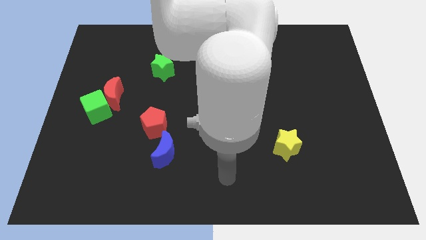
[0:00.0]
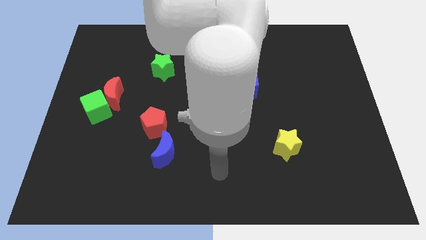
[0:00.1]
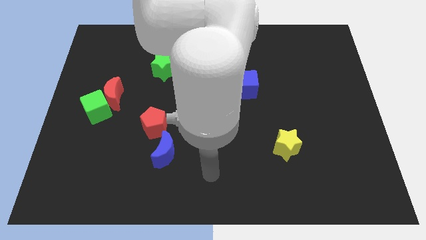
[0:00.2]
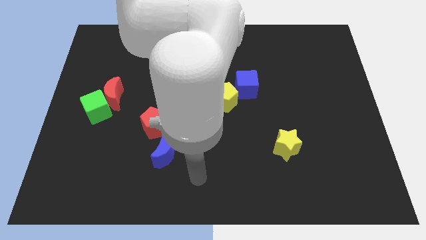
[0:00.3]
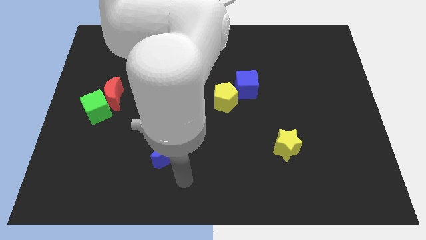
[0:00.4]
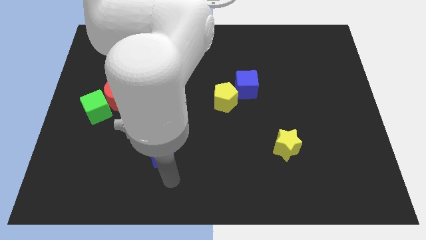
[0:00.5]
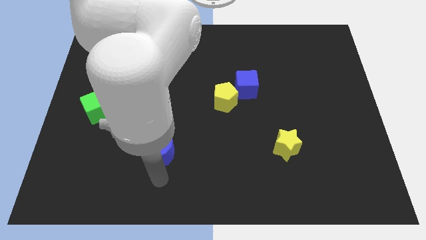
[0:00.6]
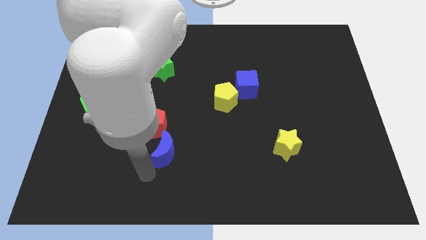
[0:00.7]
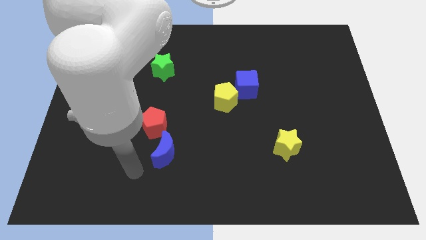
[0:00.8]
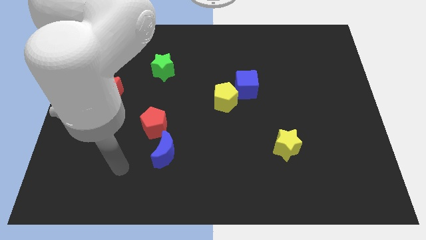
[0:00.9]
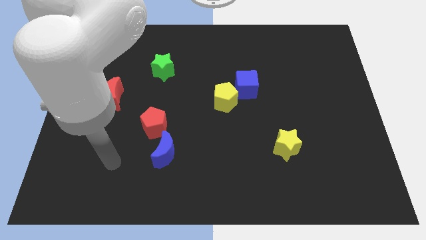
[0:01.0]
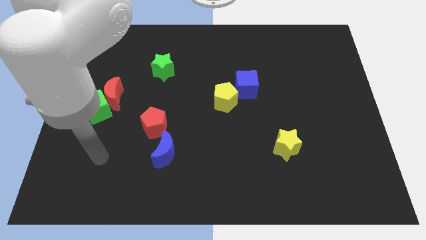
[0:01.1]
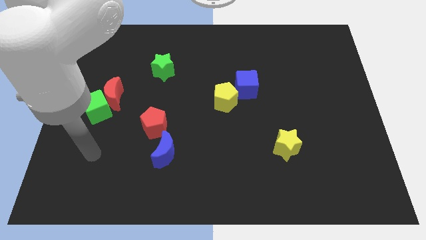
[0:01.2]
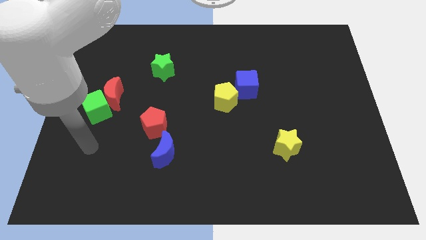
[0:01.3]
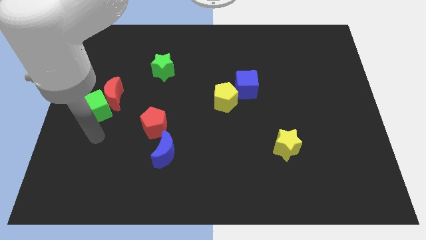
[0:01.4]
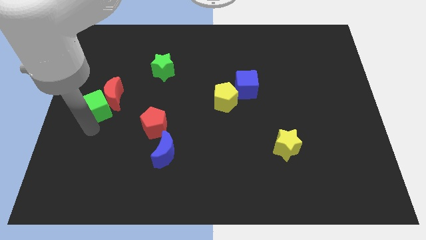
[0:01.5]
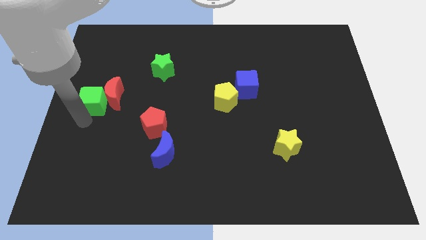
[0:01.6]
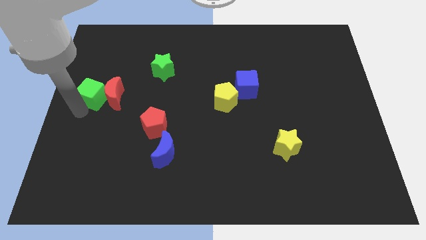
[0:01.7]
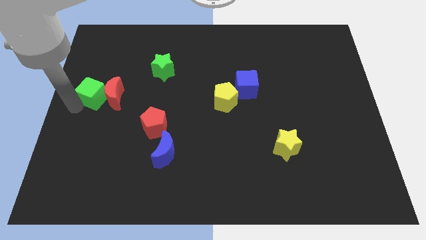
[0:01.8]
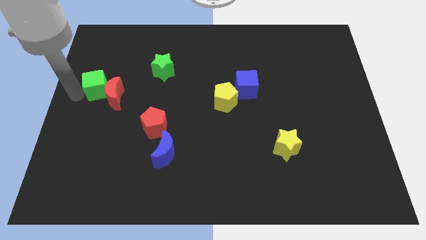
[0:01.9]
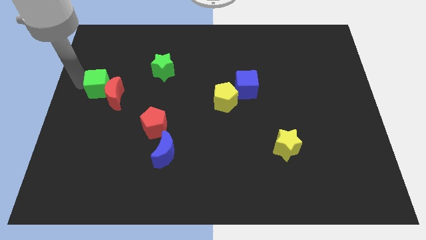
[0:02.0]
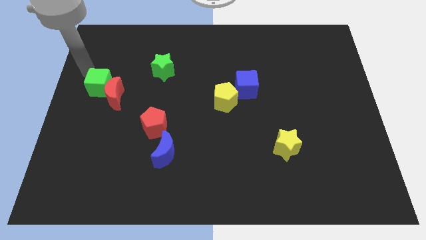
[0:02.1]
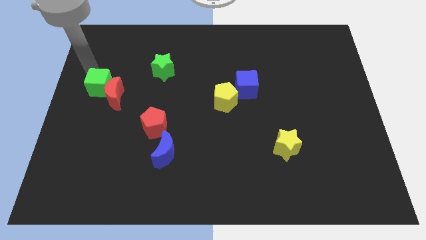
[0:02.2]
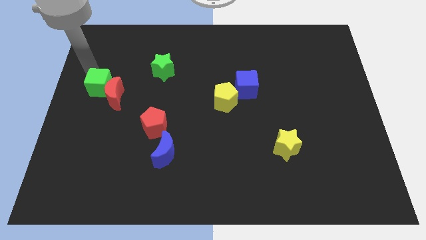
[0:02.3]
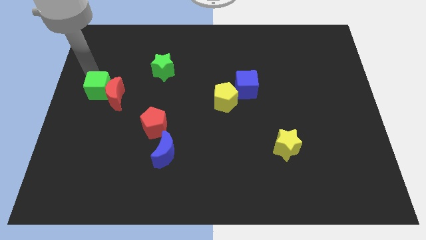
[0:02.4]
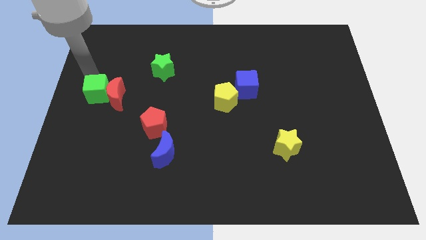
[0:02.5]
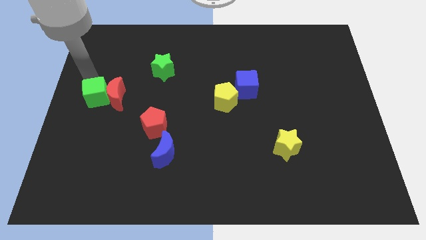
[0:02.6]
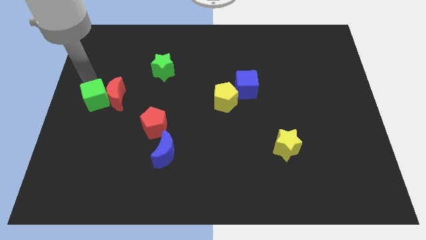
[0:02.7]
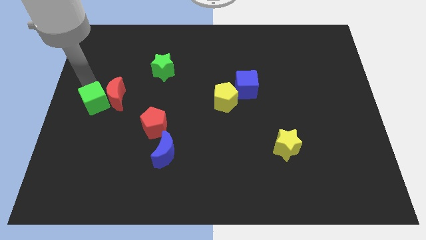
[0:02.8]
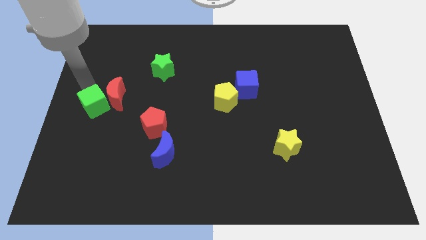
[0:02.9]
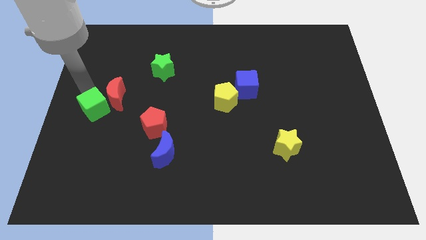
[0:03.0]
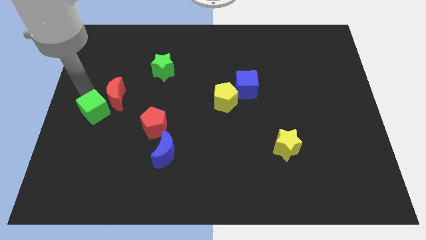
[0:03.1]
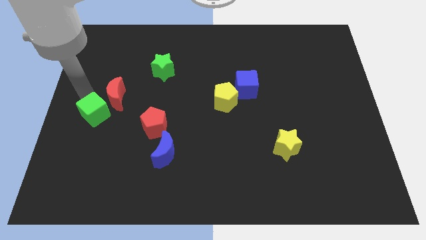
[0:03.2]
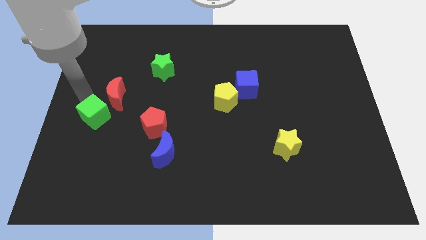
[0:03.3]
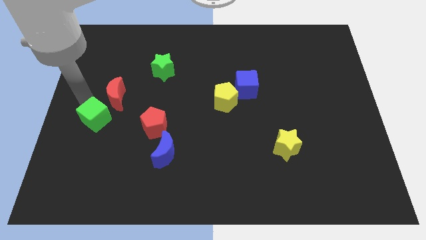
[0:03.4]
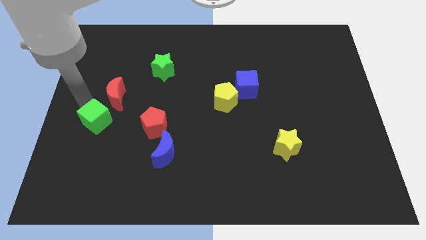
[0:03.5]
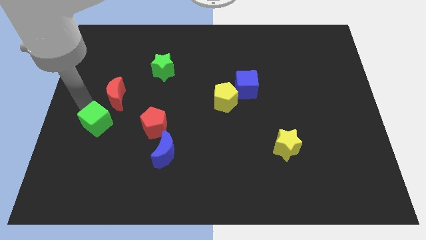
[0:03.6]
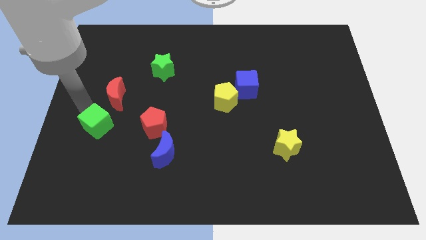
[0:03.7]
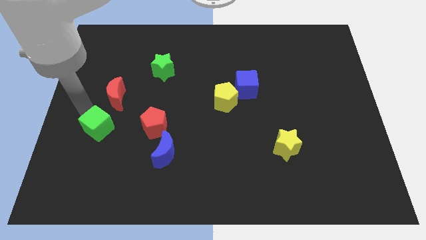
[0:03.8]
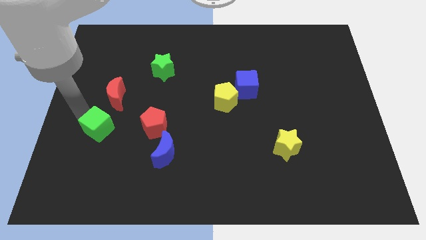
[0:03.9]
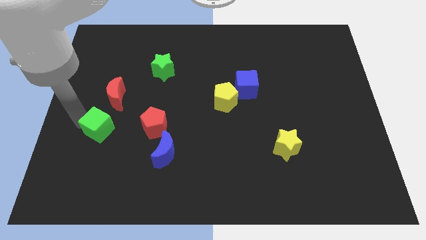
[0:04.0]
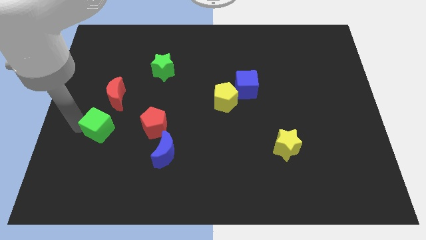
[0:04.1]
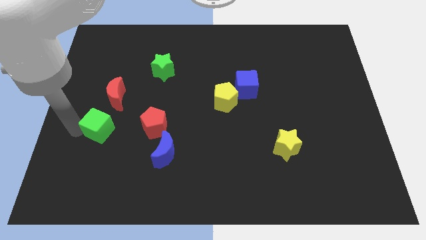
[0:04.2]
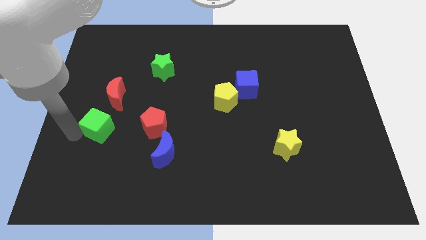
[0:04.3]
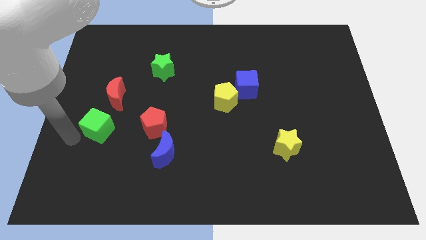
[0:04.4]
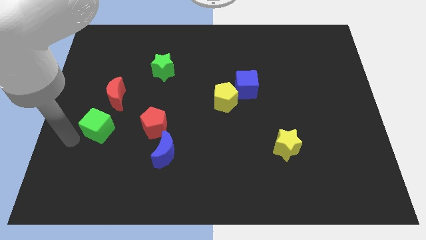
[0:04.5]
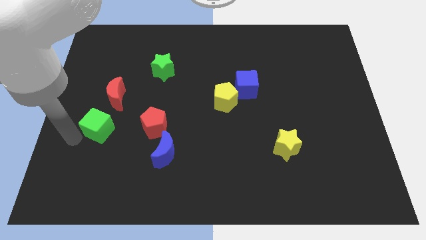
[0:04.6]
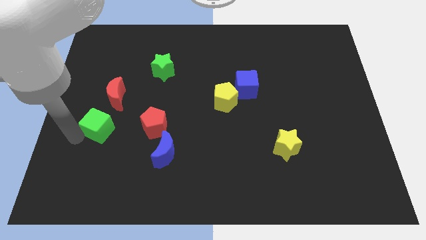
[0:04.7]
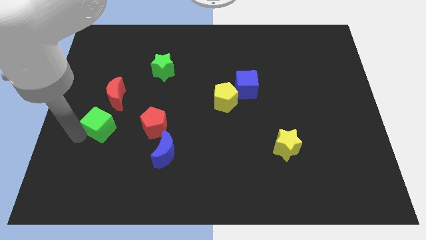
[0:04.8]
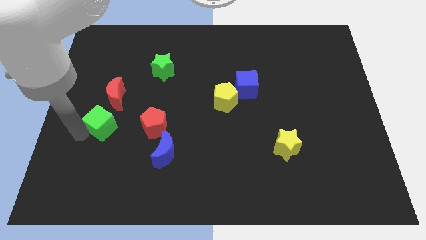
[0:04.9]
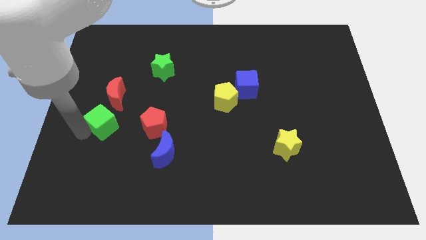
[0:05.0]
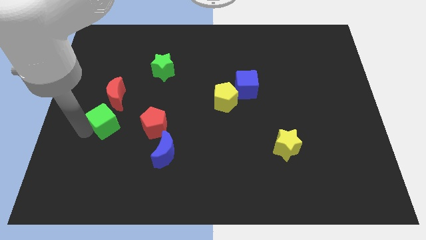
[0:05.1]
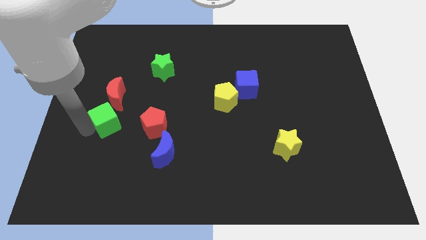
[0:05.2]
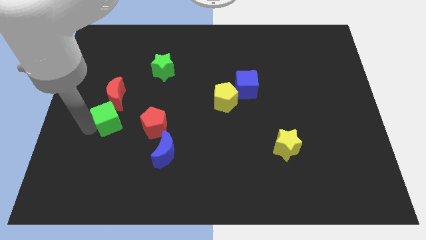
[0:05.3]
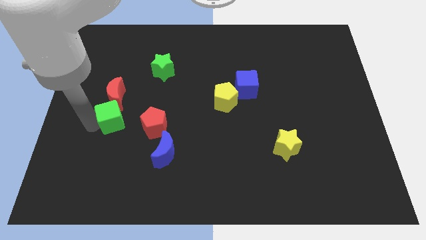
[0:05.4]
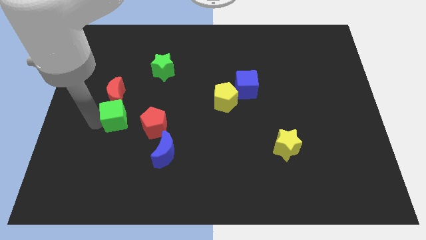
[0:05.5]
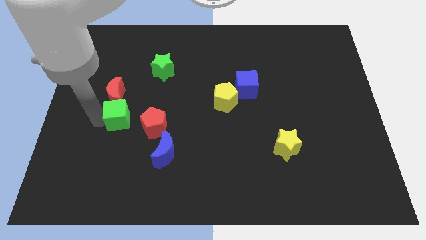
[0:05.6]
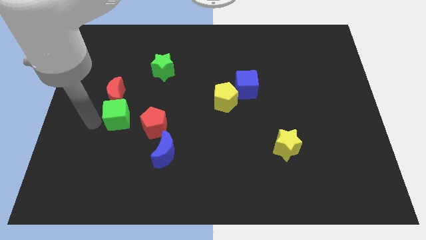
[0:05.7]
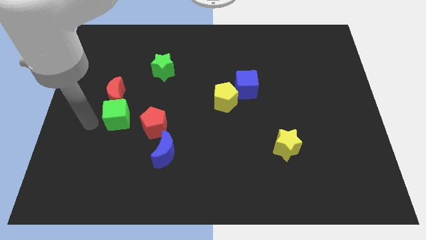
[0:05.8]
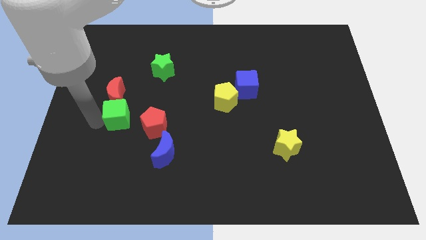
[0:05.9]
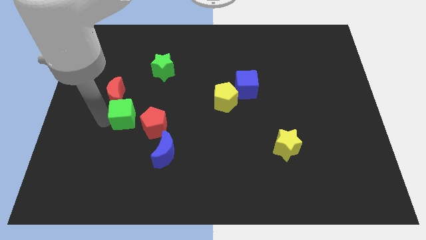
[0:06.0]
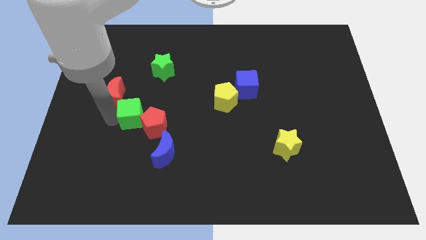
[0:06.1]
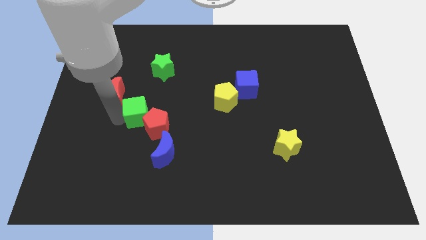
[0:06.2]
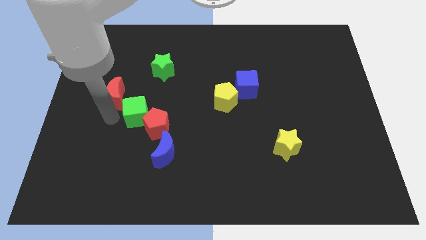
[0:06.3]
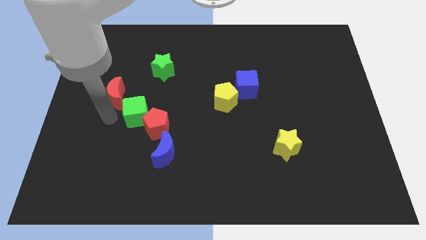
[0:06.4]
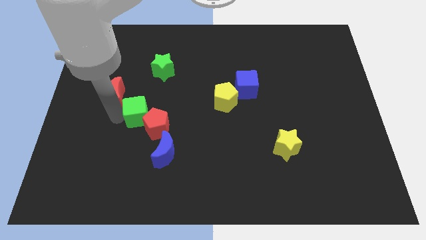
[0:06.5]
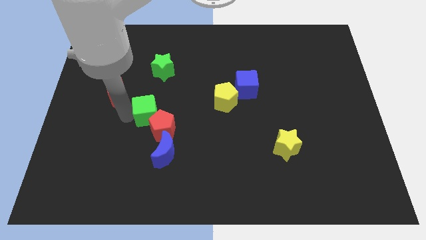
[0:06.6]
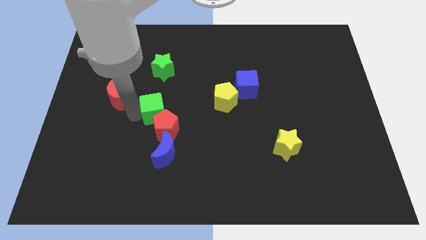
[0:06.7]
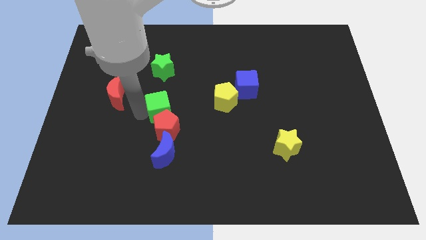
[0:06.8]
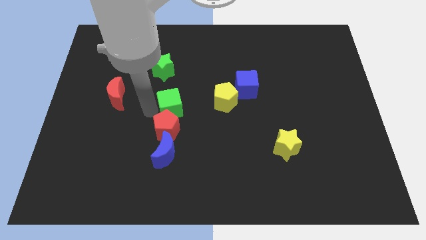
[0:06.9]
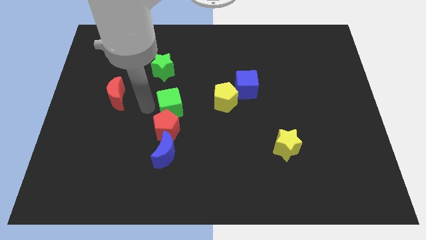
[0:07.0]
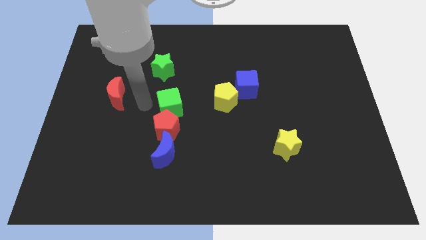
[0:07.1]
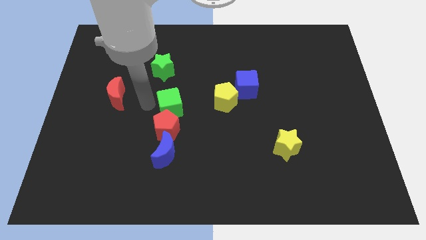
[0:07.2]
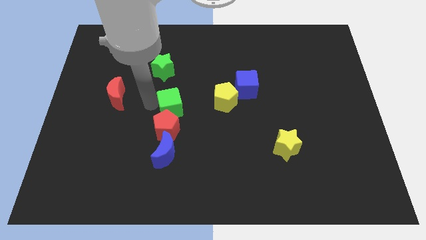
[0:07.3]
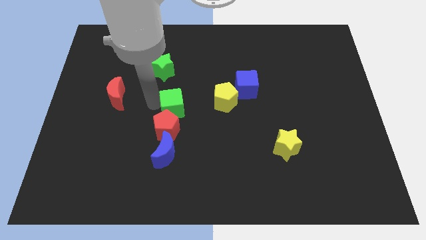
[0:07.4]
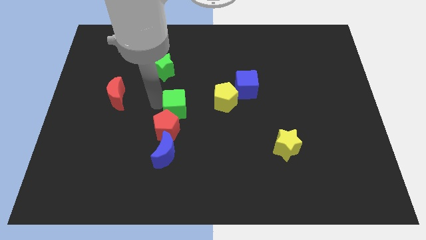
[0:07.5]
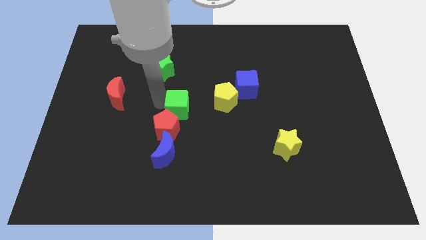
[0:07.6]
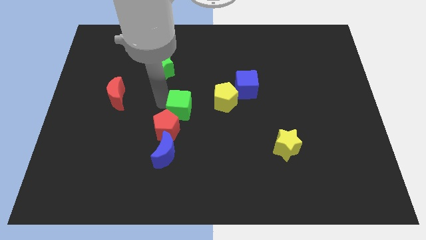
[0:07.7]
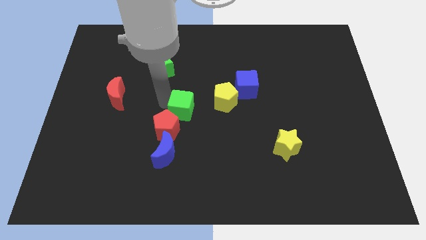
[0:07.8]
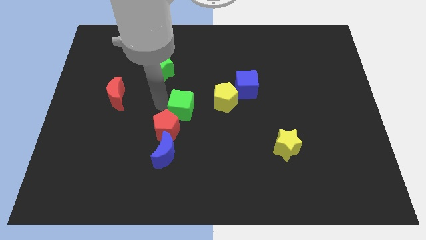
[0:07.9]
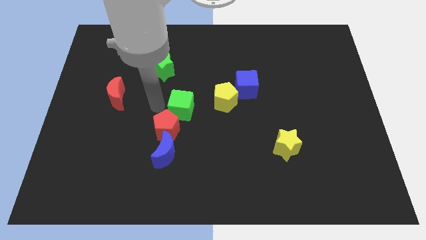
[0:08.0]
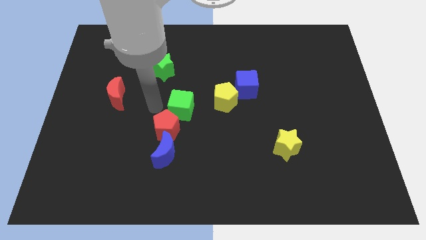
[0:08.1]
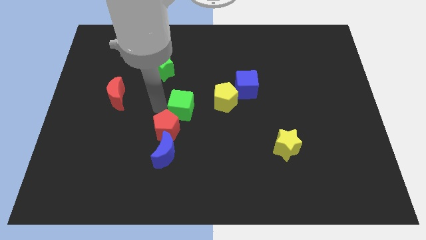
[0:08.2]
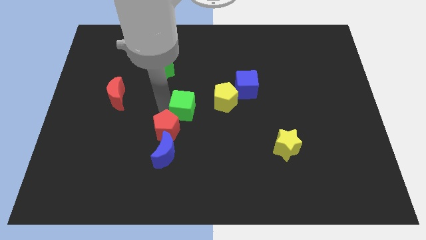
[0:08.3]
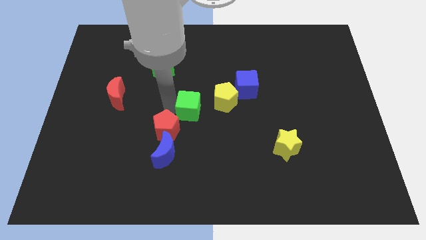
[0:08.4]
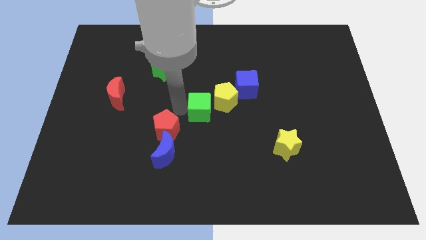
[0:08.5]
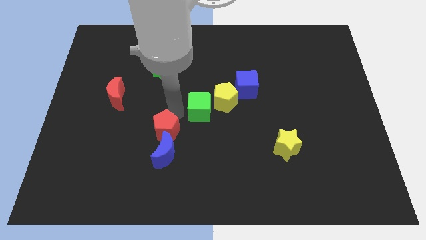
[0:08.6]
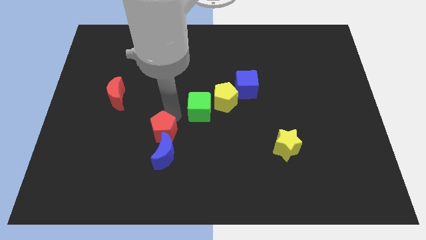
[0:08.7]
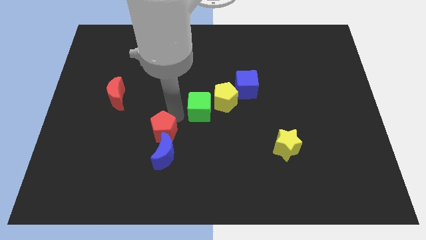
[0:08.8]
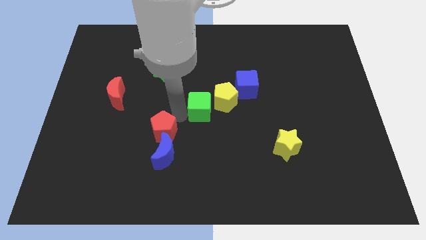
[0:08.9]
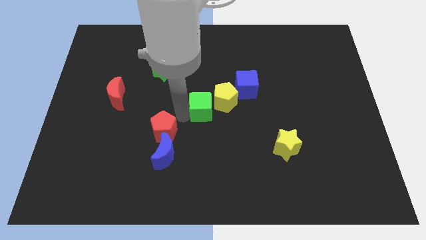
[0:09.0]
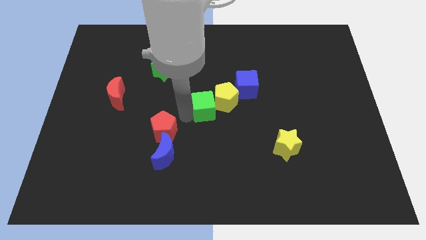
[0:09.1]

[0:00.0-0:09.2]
push the green cube to the bottom left side of the blue cube
